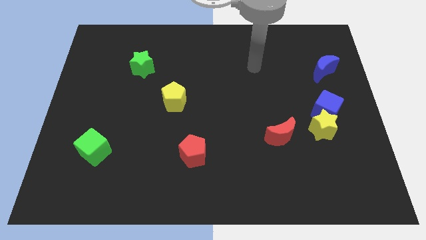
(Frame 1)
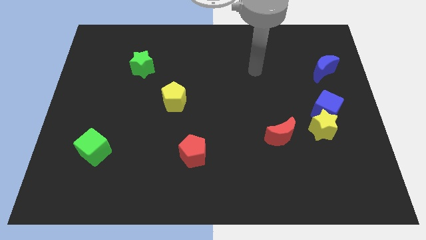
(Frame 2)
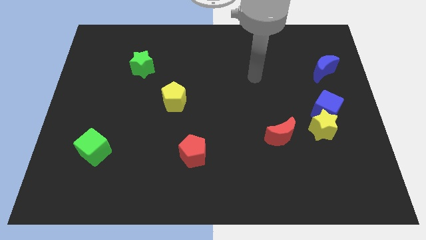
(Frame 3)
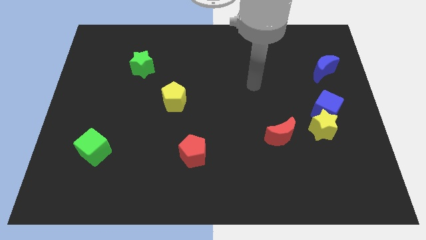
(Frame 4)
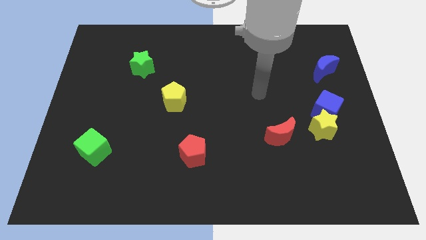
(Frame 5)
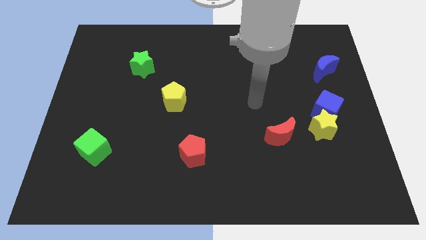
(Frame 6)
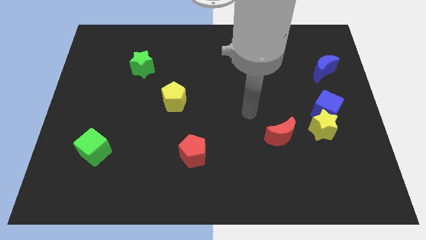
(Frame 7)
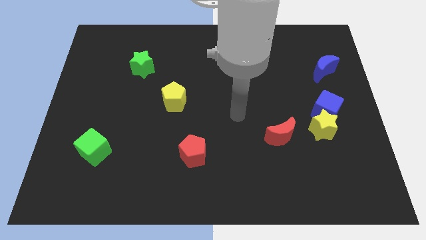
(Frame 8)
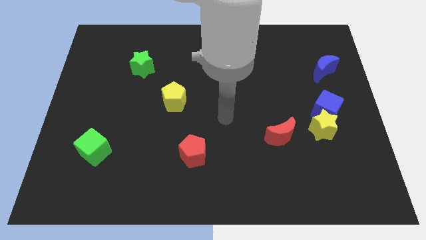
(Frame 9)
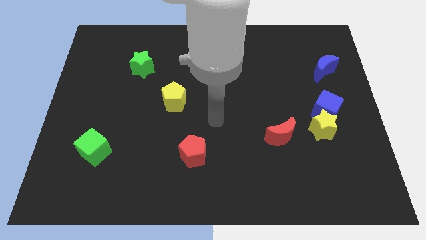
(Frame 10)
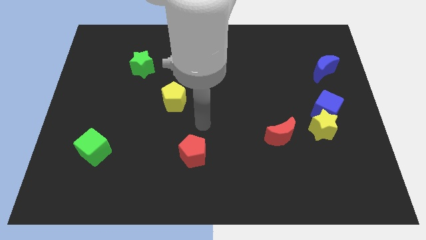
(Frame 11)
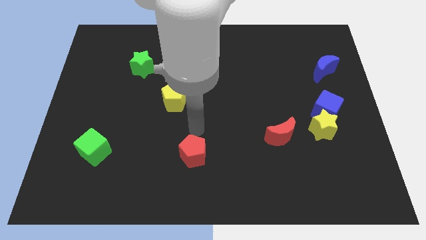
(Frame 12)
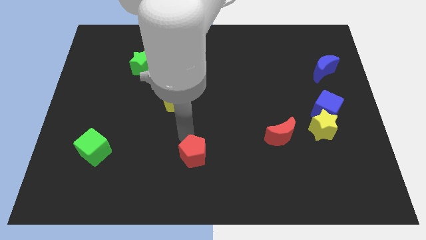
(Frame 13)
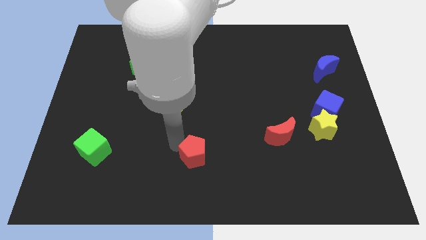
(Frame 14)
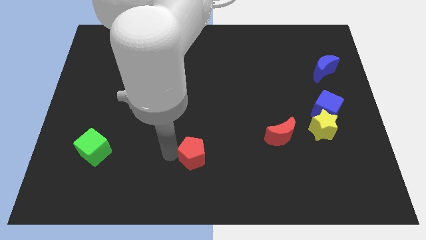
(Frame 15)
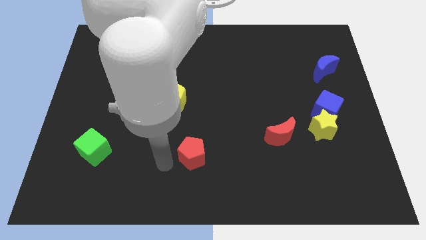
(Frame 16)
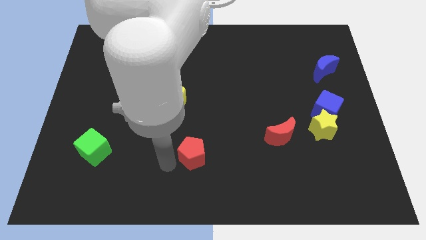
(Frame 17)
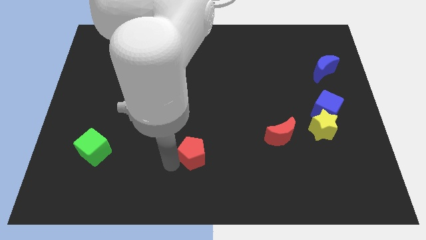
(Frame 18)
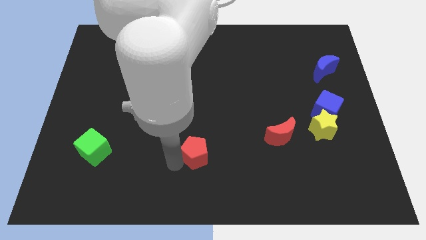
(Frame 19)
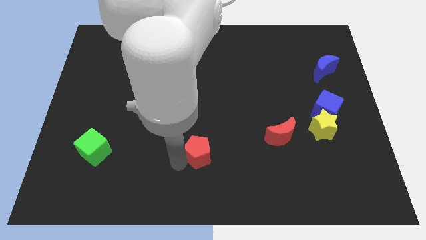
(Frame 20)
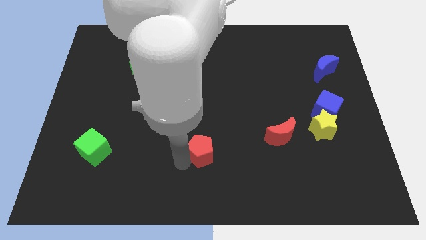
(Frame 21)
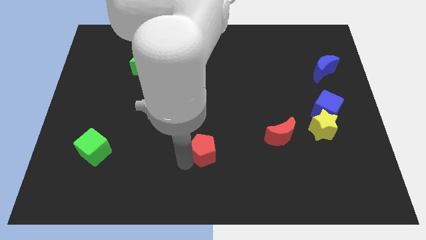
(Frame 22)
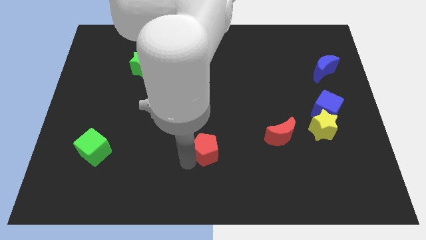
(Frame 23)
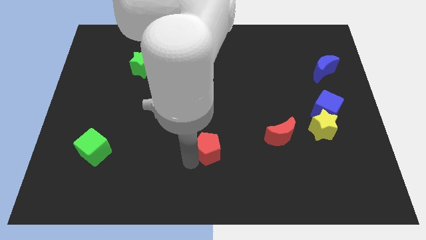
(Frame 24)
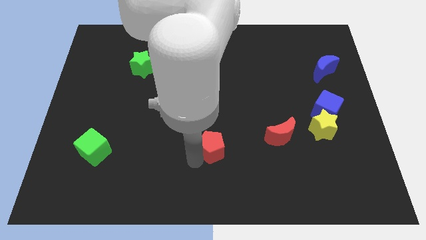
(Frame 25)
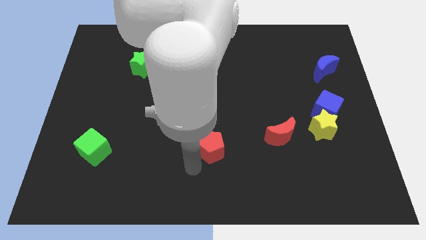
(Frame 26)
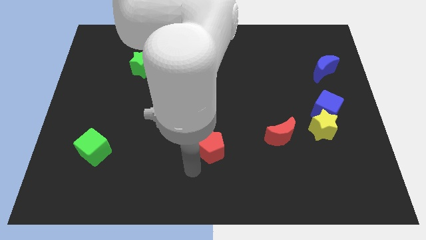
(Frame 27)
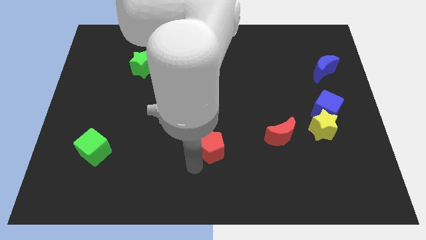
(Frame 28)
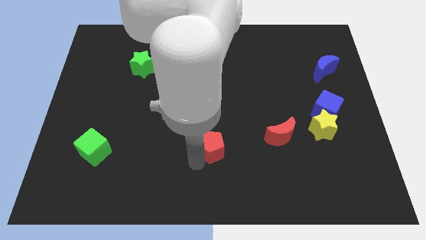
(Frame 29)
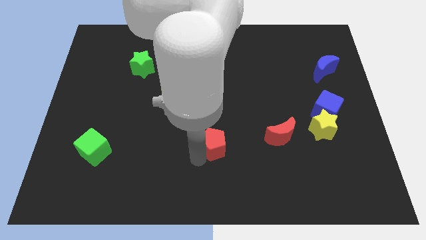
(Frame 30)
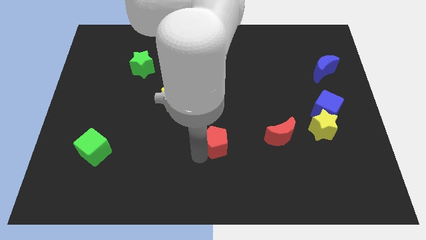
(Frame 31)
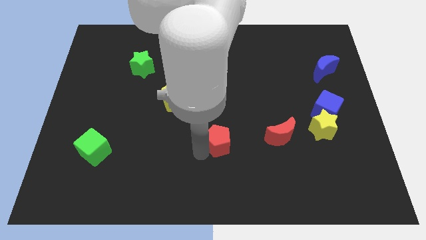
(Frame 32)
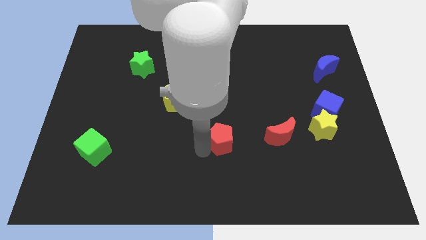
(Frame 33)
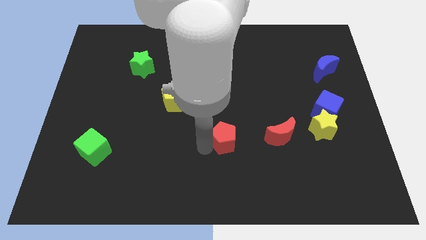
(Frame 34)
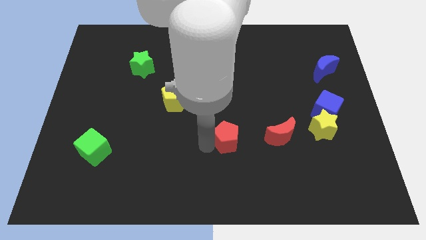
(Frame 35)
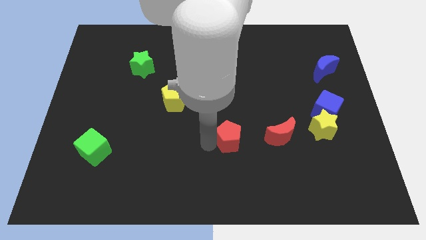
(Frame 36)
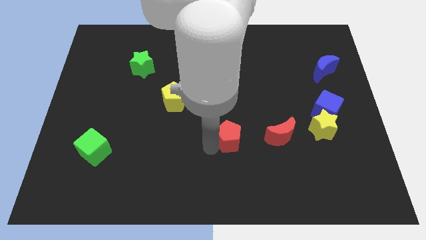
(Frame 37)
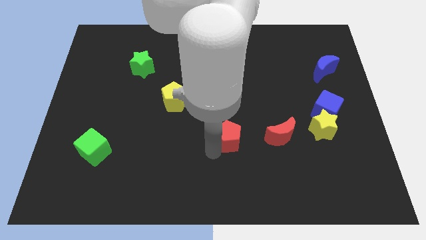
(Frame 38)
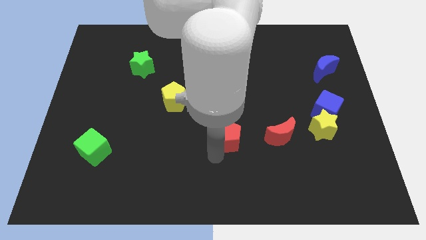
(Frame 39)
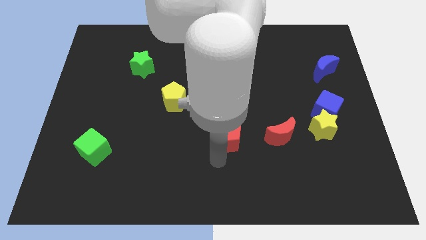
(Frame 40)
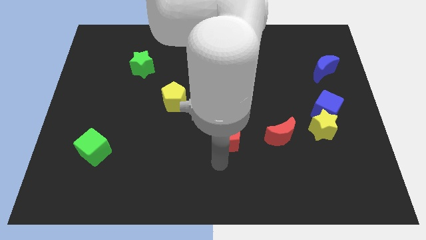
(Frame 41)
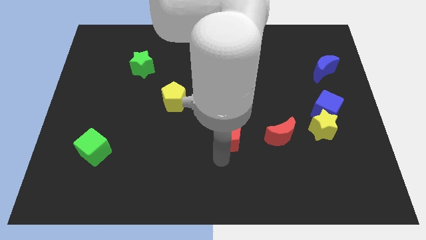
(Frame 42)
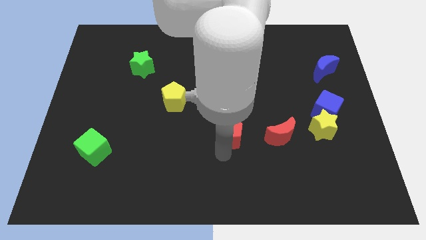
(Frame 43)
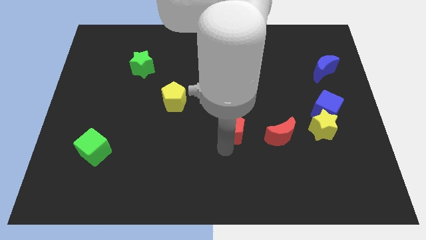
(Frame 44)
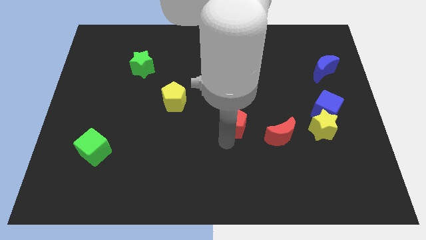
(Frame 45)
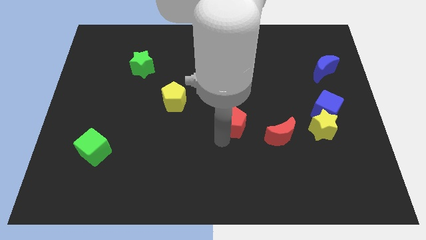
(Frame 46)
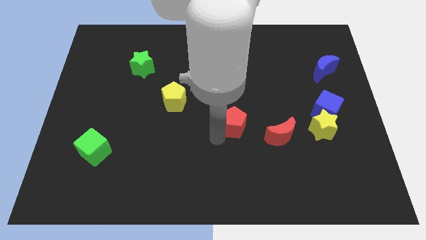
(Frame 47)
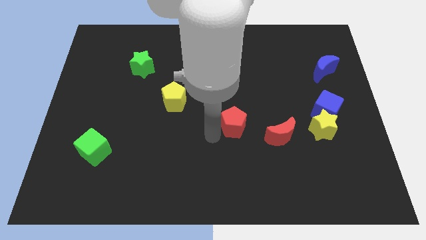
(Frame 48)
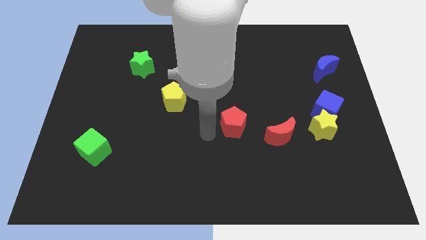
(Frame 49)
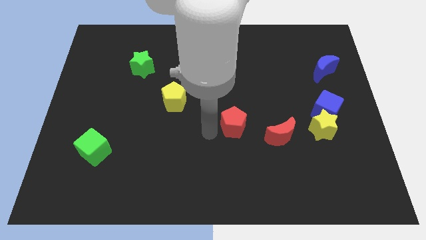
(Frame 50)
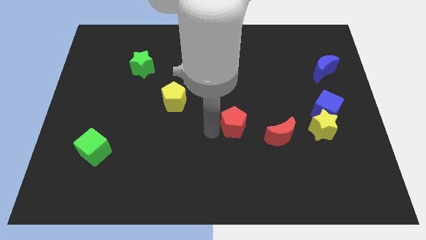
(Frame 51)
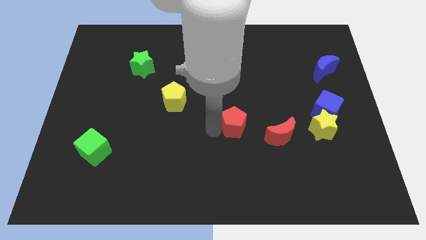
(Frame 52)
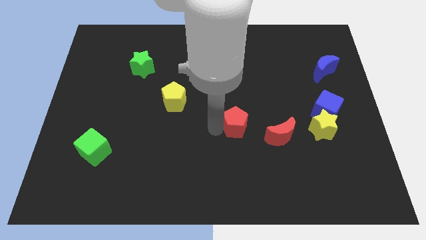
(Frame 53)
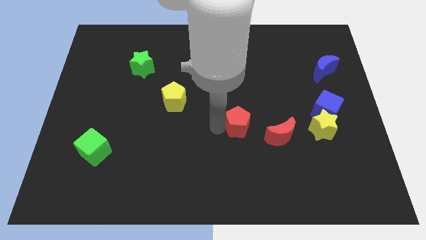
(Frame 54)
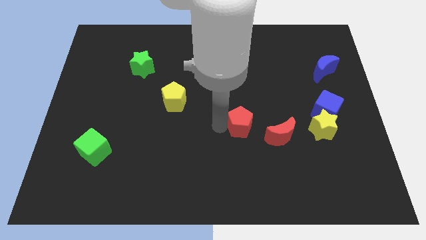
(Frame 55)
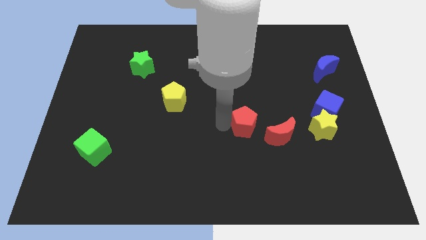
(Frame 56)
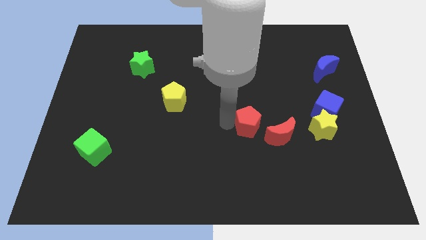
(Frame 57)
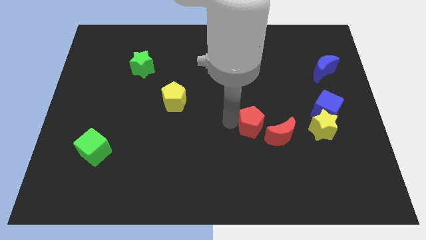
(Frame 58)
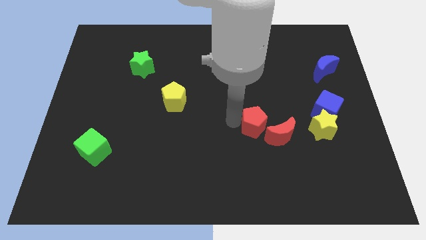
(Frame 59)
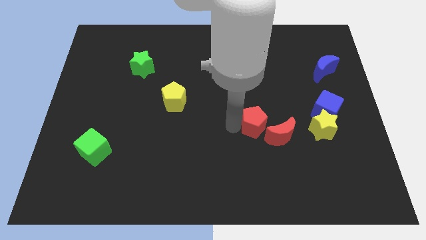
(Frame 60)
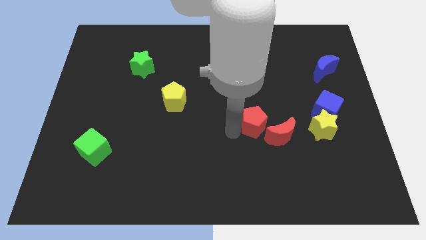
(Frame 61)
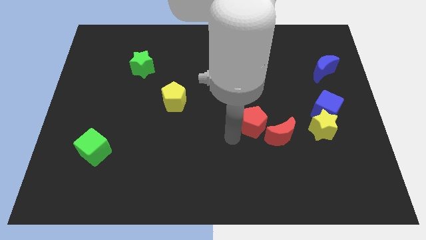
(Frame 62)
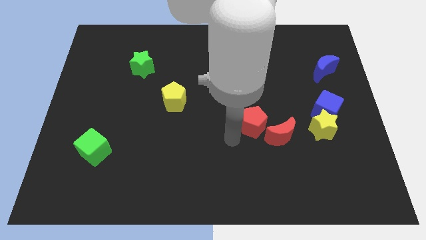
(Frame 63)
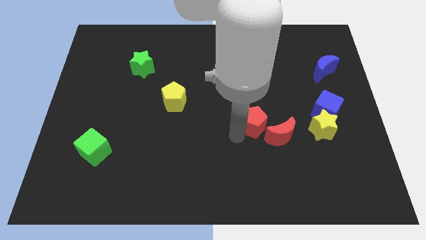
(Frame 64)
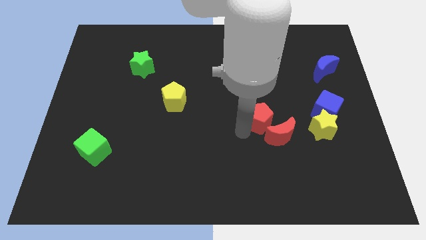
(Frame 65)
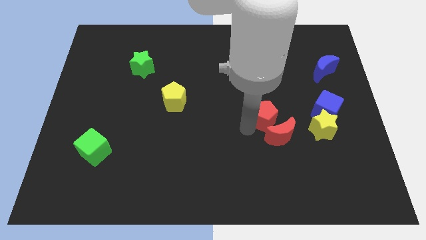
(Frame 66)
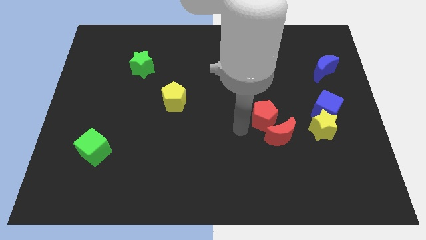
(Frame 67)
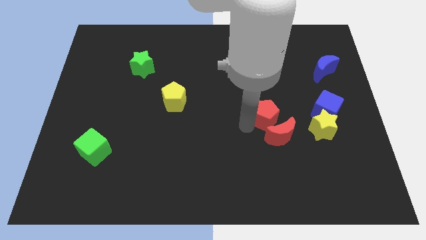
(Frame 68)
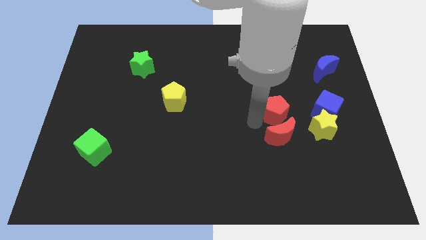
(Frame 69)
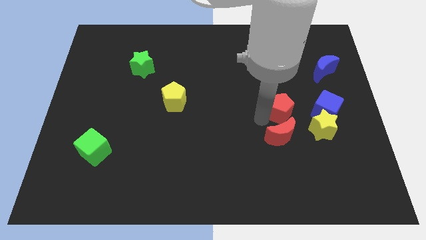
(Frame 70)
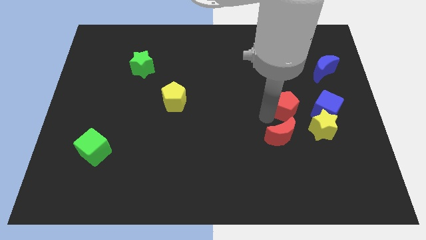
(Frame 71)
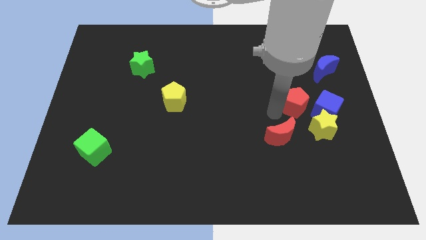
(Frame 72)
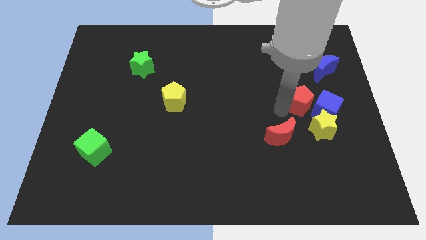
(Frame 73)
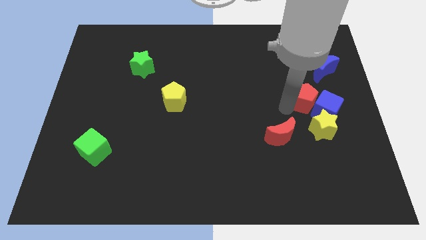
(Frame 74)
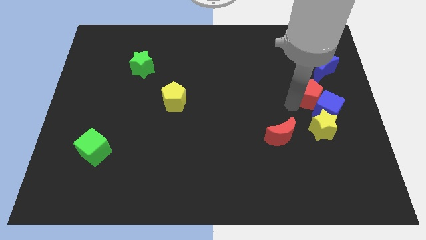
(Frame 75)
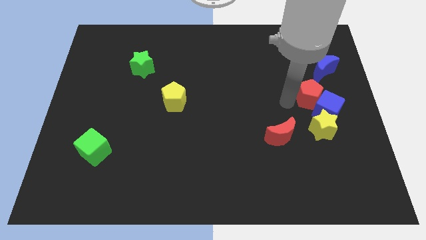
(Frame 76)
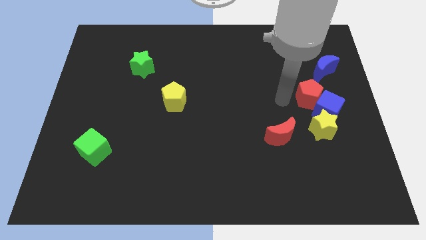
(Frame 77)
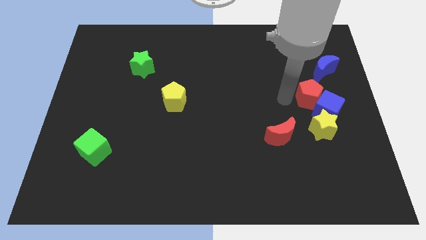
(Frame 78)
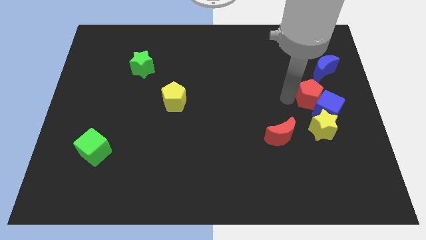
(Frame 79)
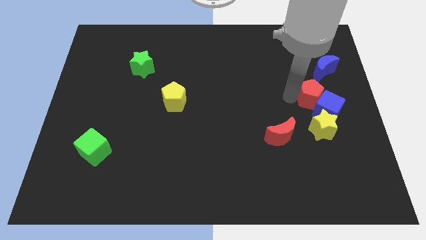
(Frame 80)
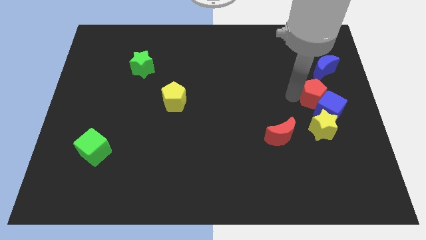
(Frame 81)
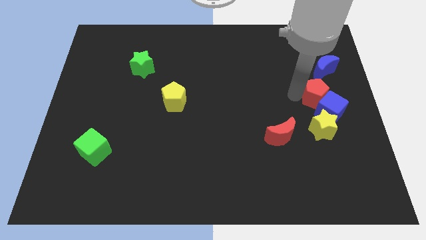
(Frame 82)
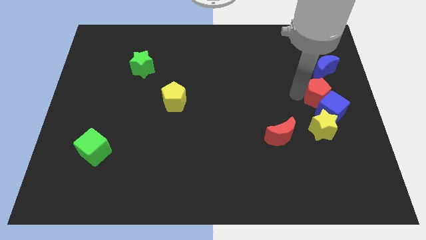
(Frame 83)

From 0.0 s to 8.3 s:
move the red pentagon to the right side
